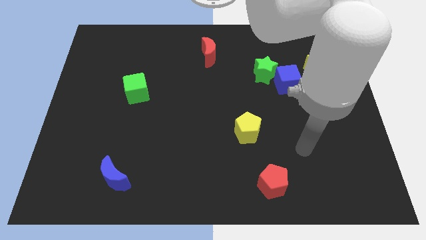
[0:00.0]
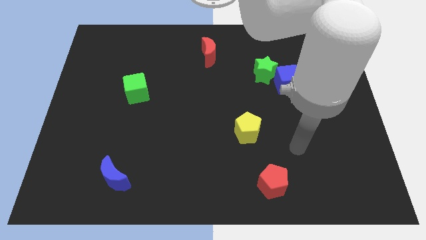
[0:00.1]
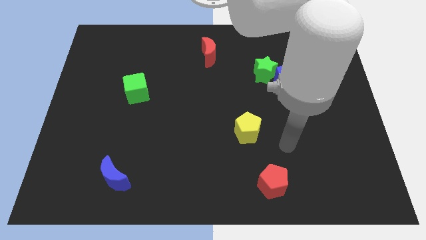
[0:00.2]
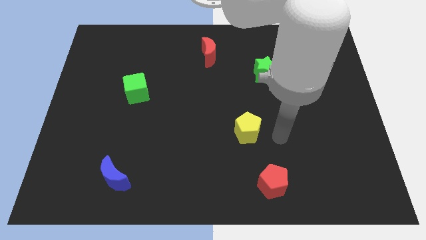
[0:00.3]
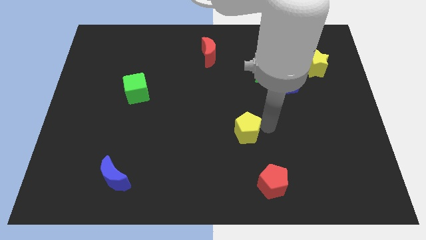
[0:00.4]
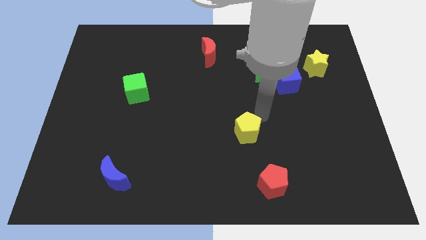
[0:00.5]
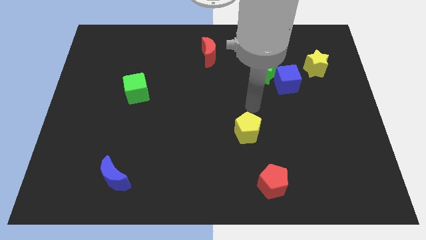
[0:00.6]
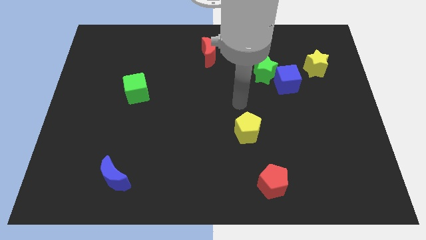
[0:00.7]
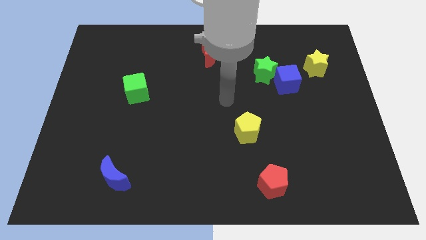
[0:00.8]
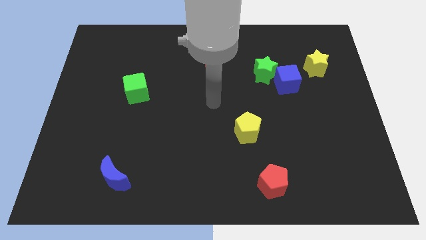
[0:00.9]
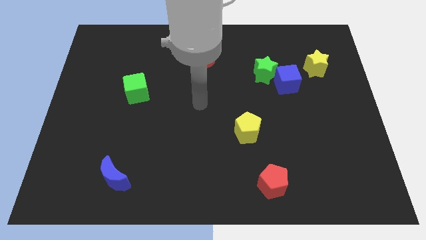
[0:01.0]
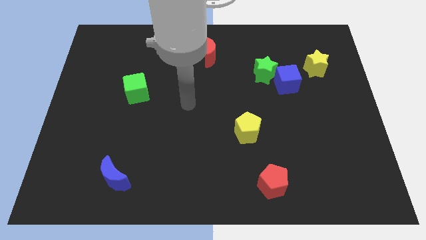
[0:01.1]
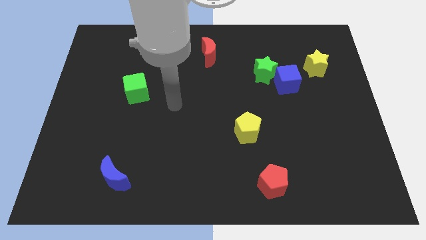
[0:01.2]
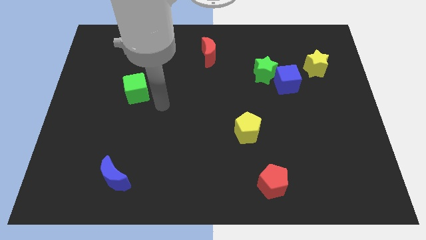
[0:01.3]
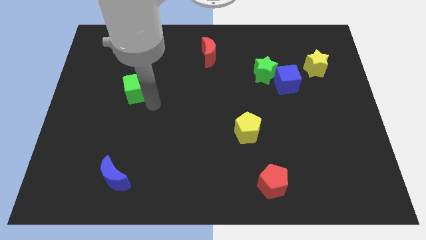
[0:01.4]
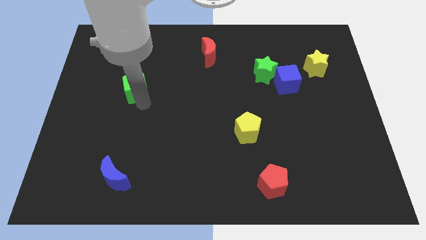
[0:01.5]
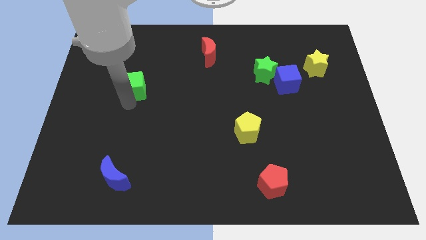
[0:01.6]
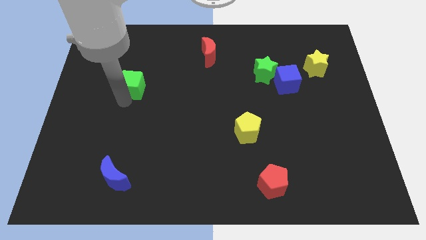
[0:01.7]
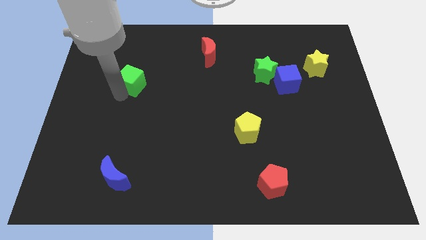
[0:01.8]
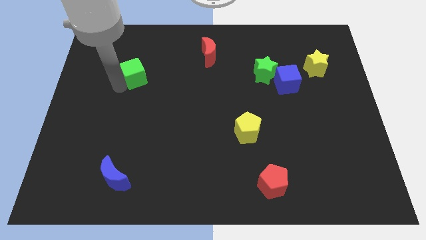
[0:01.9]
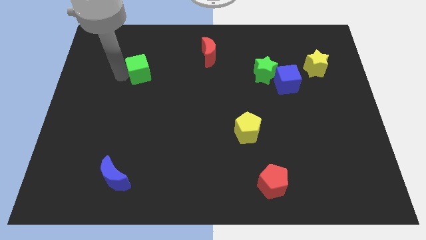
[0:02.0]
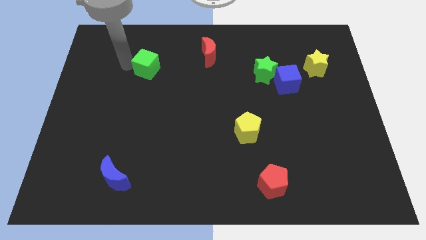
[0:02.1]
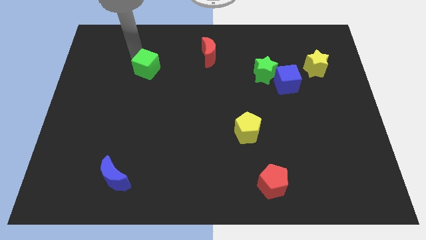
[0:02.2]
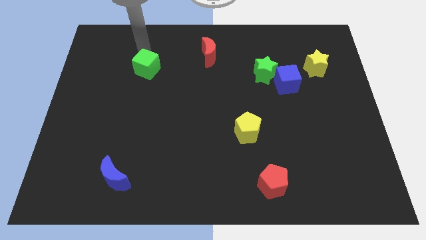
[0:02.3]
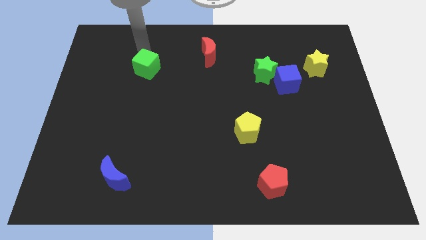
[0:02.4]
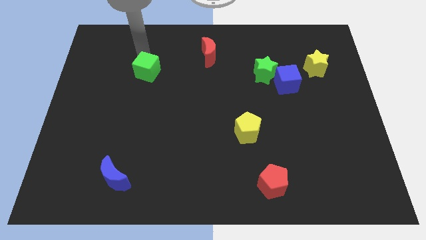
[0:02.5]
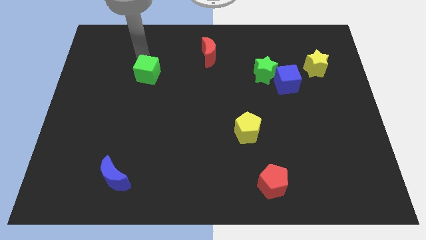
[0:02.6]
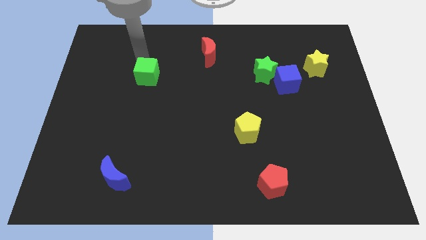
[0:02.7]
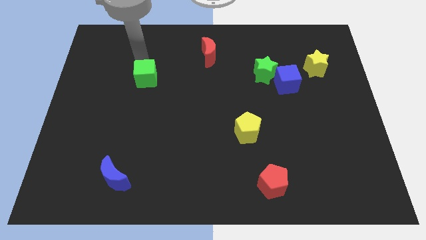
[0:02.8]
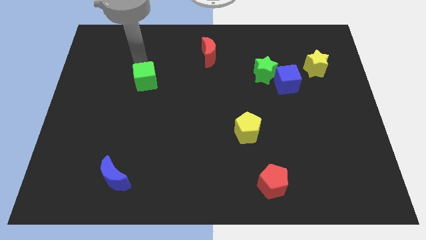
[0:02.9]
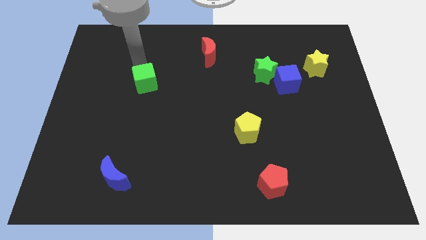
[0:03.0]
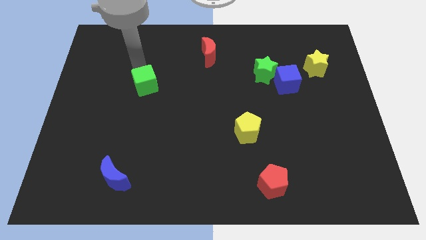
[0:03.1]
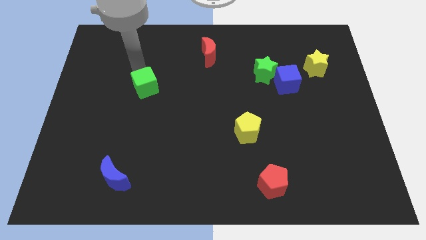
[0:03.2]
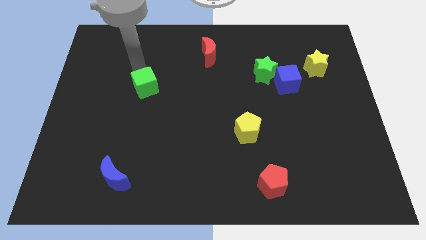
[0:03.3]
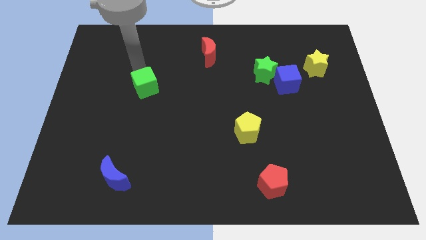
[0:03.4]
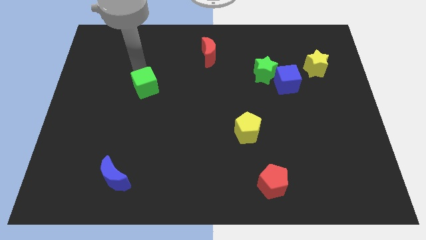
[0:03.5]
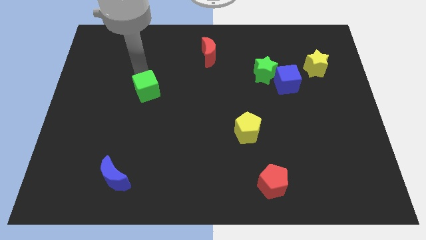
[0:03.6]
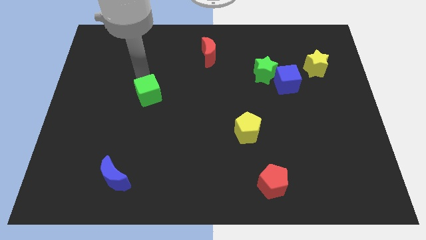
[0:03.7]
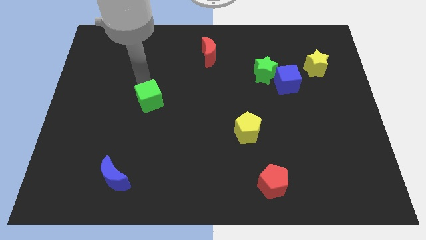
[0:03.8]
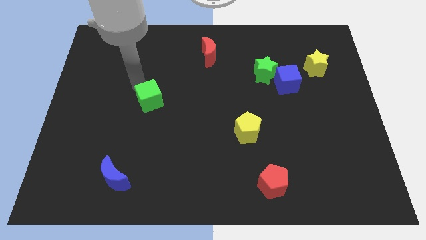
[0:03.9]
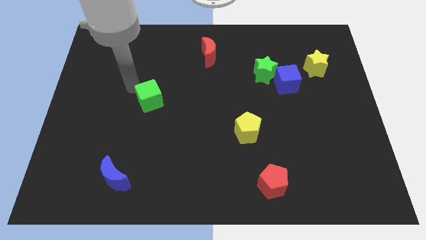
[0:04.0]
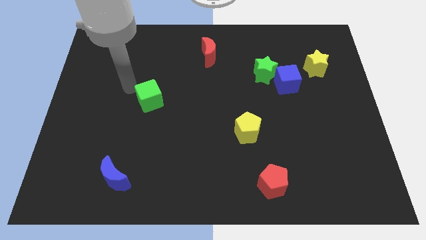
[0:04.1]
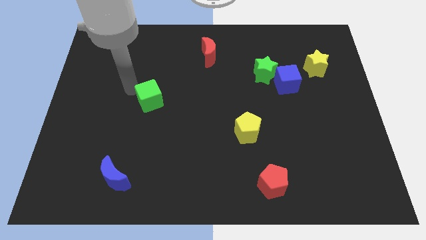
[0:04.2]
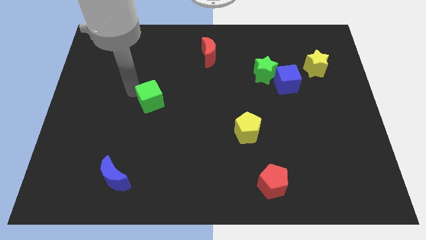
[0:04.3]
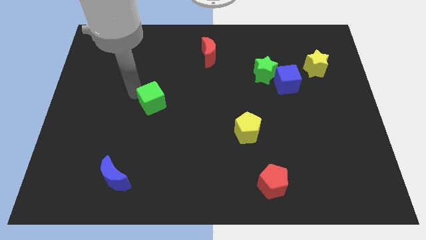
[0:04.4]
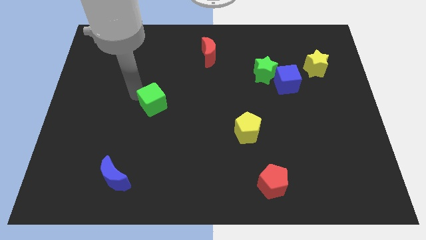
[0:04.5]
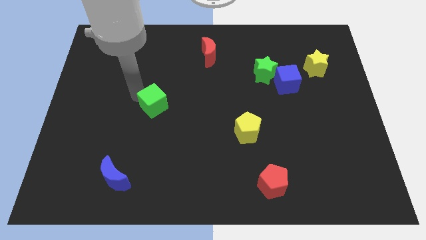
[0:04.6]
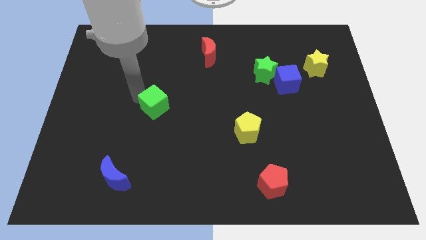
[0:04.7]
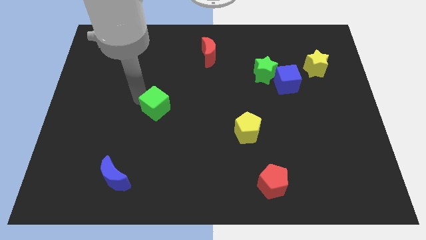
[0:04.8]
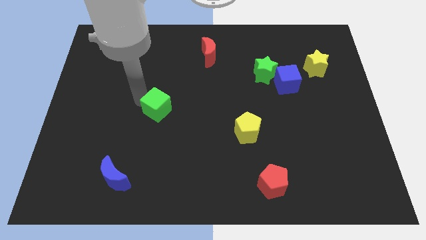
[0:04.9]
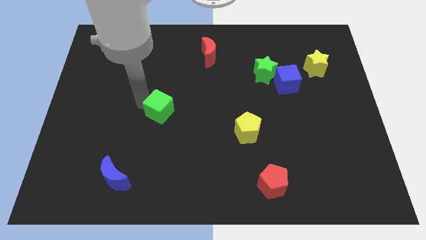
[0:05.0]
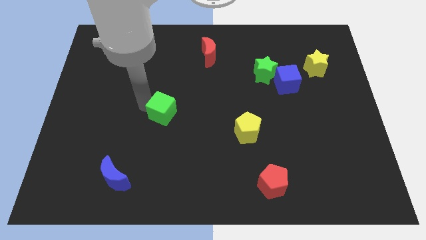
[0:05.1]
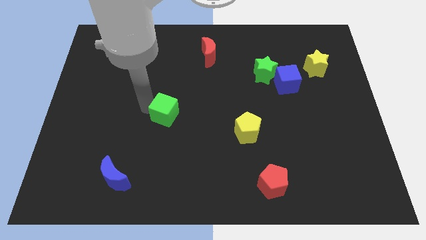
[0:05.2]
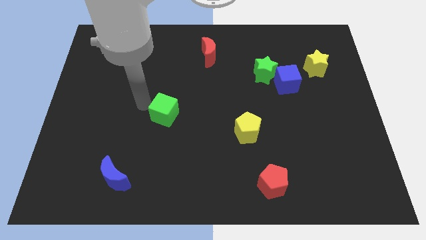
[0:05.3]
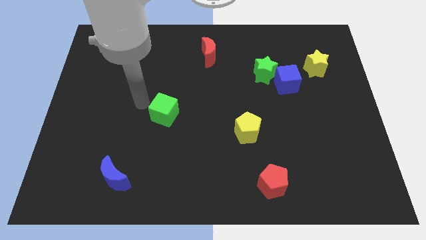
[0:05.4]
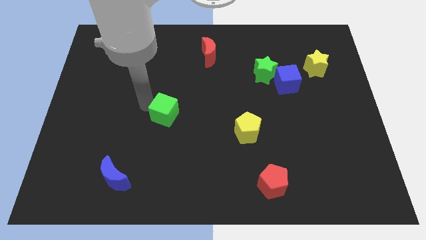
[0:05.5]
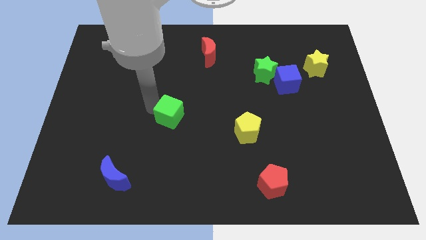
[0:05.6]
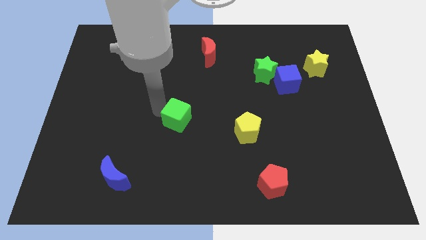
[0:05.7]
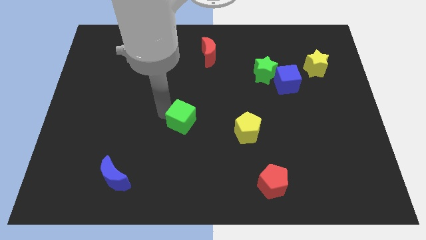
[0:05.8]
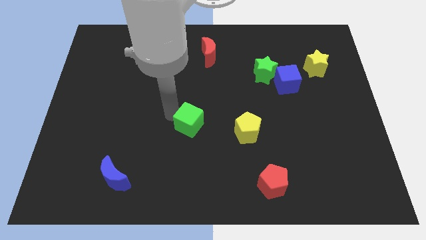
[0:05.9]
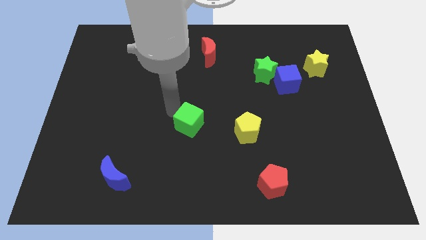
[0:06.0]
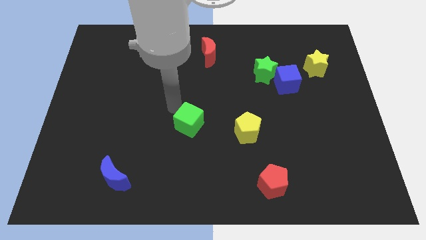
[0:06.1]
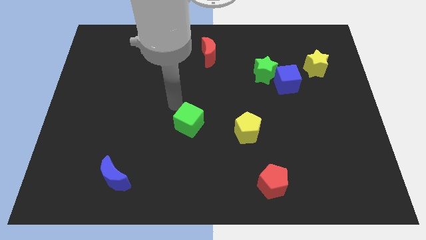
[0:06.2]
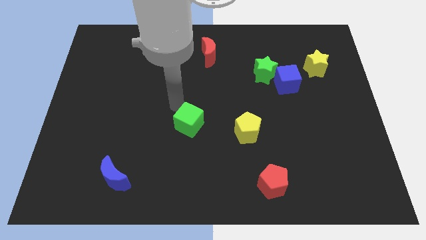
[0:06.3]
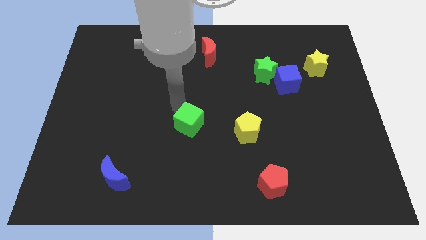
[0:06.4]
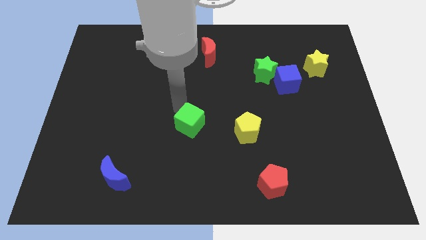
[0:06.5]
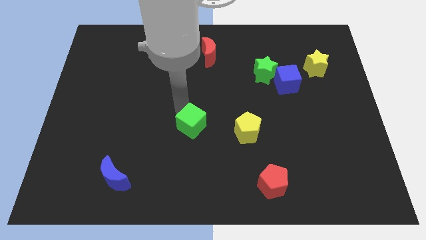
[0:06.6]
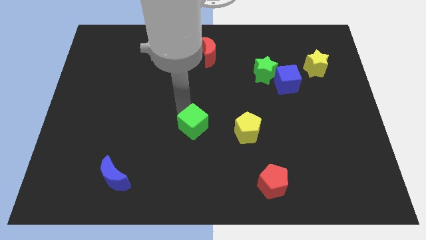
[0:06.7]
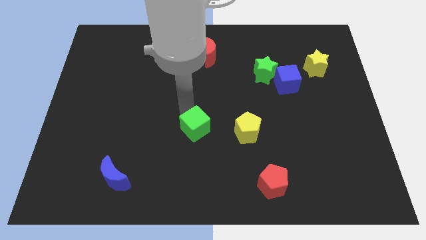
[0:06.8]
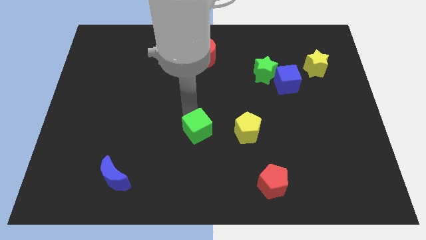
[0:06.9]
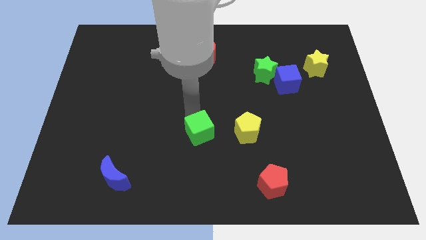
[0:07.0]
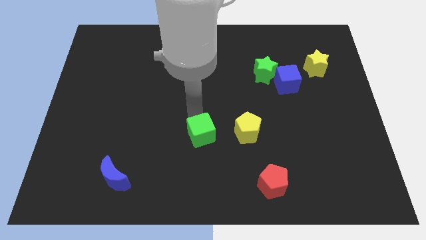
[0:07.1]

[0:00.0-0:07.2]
push the green cube down and to the right diagonally

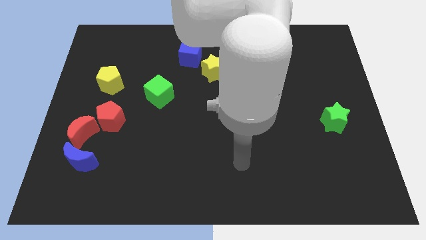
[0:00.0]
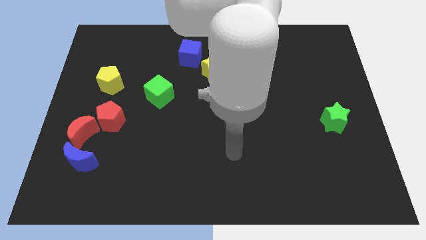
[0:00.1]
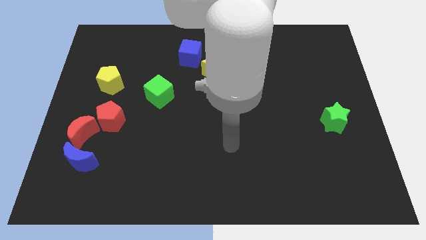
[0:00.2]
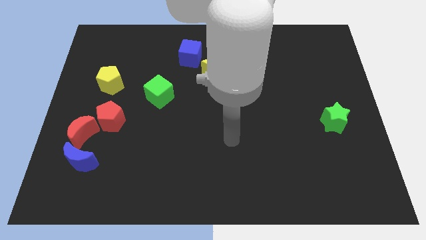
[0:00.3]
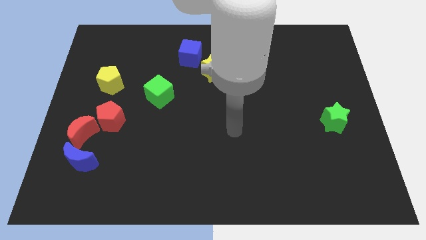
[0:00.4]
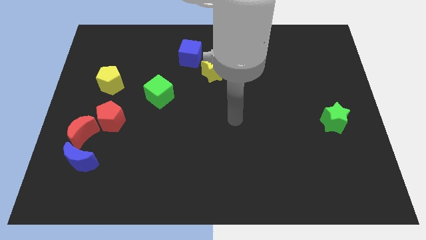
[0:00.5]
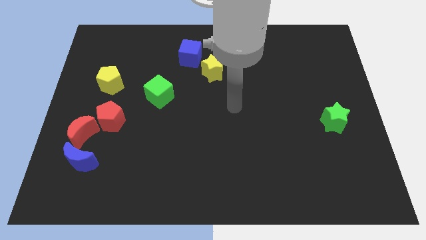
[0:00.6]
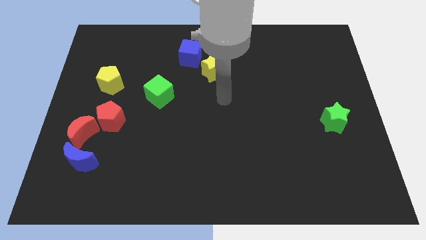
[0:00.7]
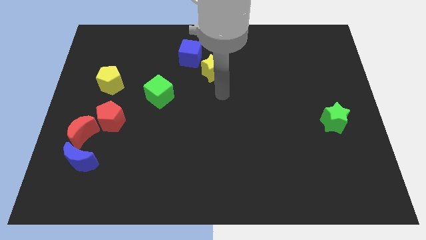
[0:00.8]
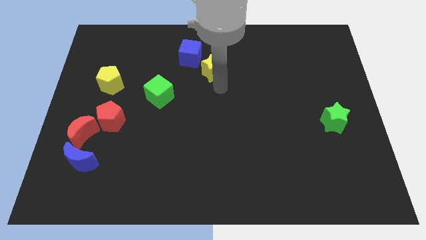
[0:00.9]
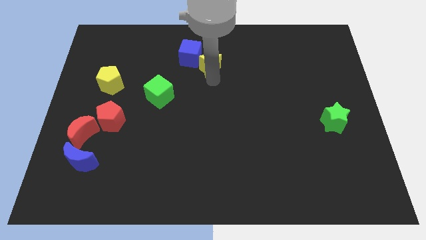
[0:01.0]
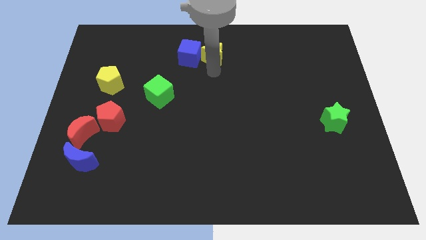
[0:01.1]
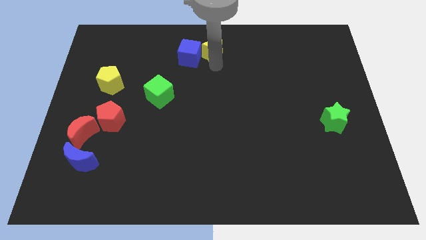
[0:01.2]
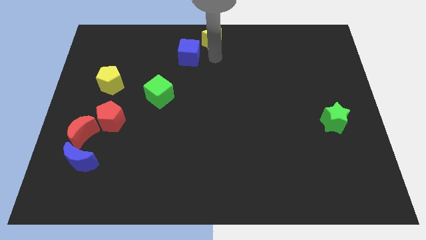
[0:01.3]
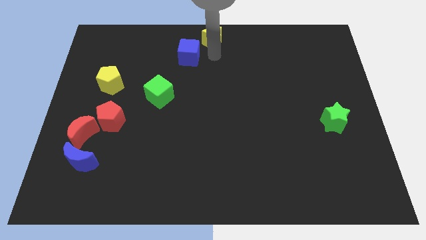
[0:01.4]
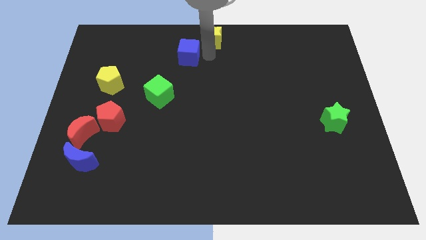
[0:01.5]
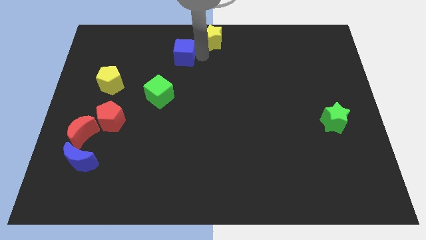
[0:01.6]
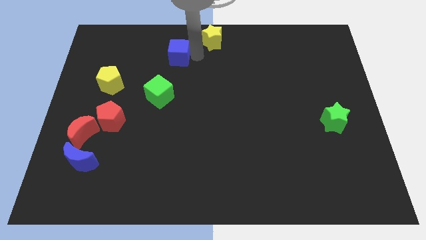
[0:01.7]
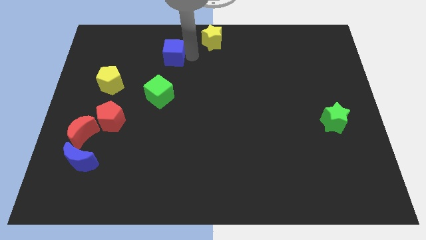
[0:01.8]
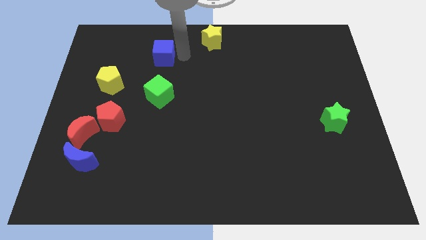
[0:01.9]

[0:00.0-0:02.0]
slightly slide the blue cube left
